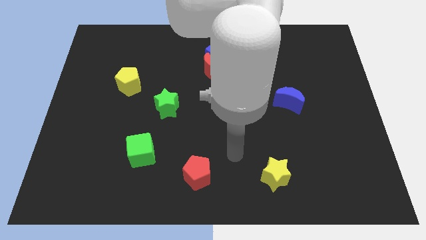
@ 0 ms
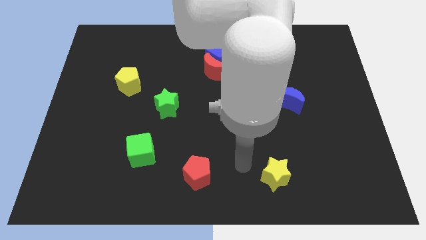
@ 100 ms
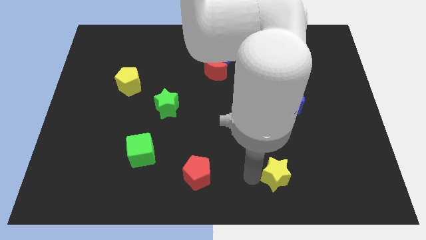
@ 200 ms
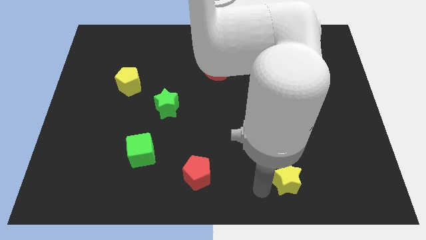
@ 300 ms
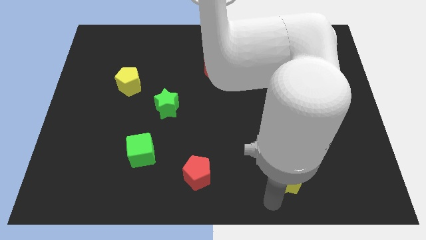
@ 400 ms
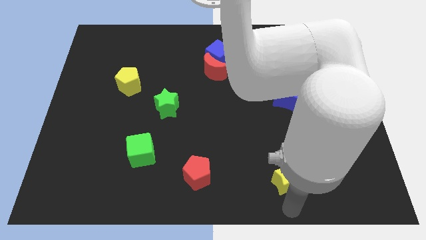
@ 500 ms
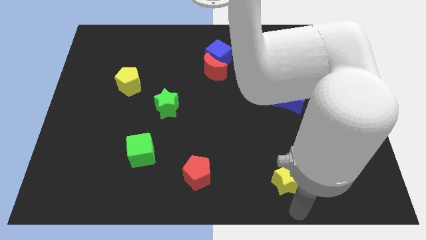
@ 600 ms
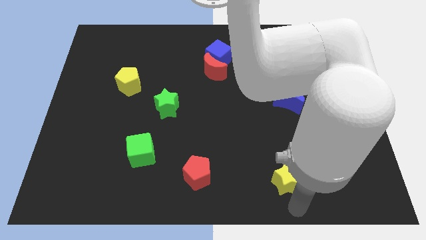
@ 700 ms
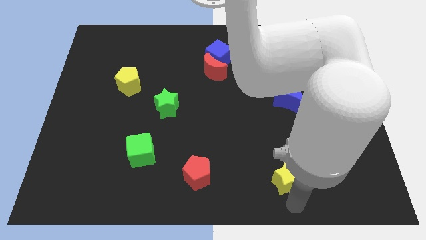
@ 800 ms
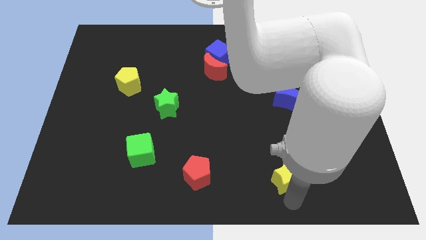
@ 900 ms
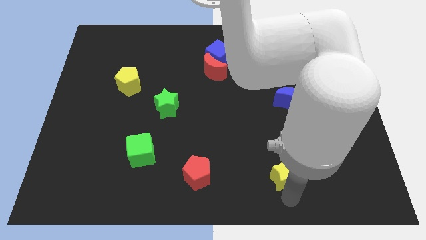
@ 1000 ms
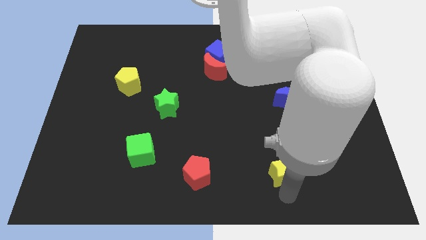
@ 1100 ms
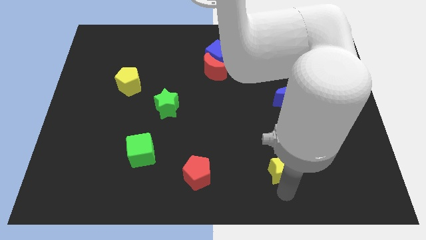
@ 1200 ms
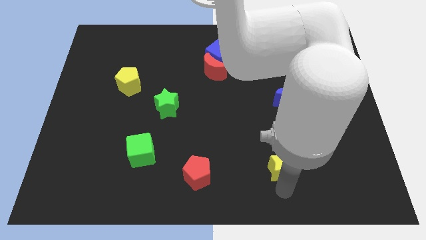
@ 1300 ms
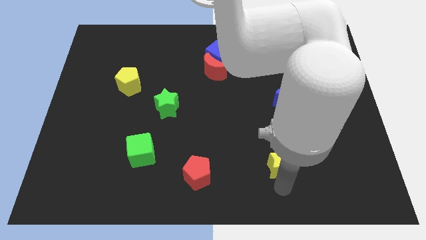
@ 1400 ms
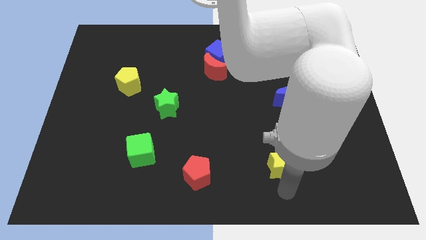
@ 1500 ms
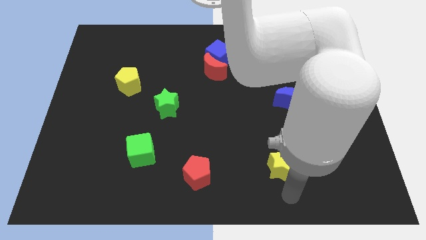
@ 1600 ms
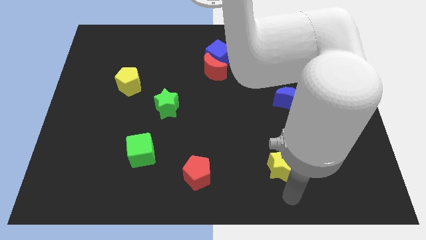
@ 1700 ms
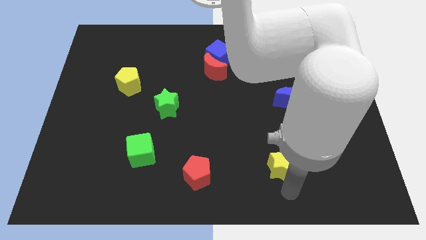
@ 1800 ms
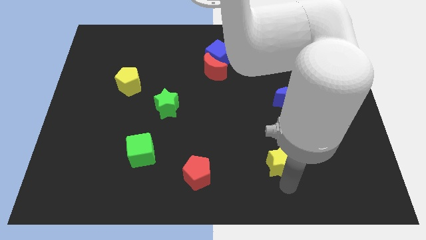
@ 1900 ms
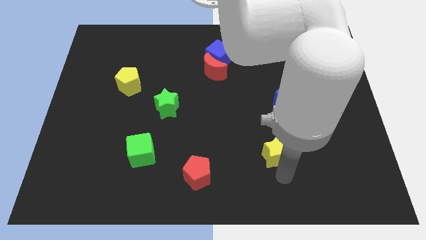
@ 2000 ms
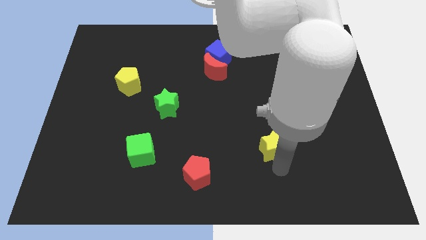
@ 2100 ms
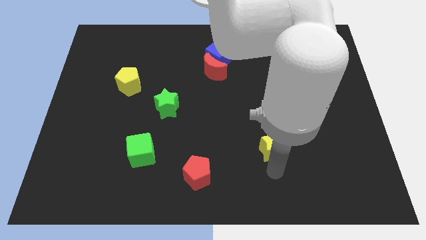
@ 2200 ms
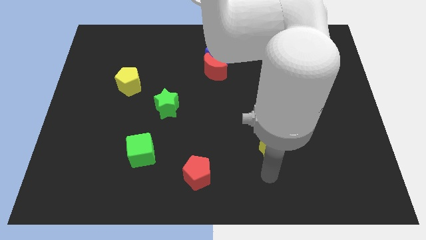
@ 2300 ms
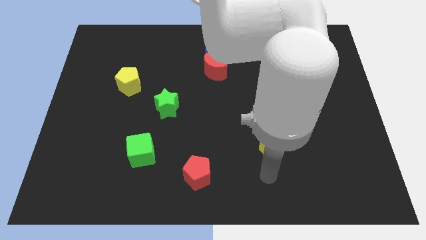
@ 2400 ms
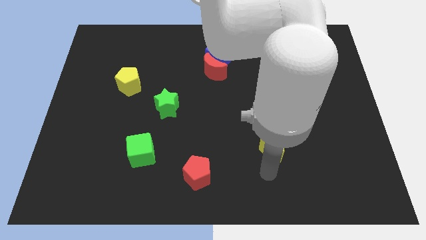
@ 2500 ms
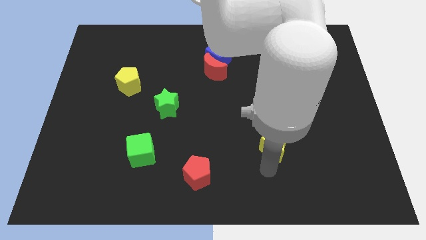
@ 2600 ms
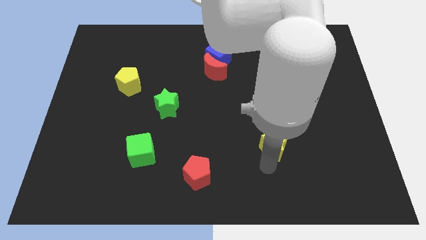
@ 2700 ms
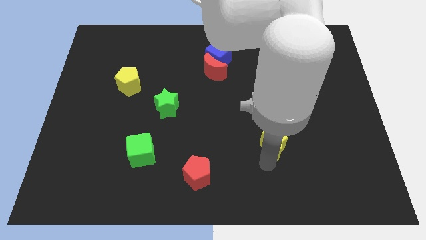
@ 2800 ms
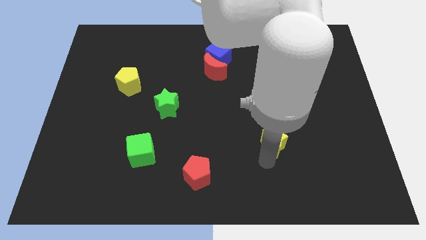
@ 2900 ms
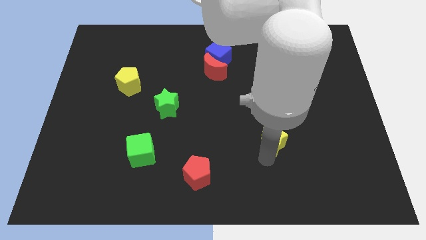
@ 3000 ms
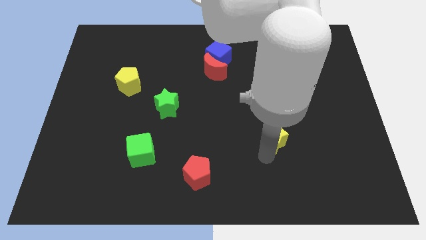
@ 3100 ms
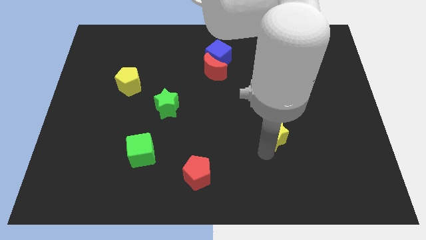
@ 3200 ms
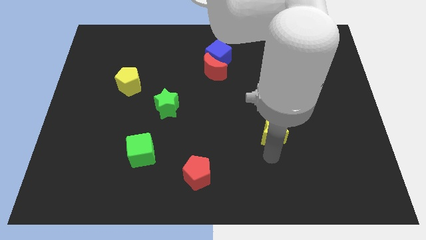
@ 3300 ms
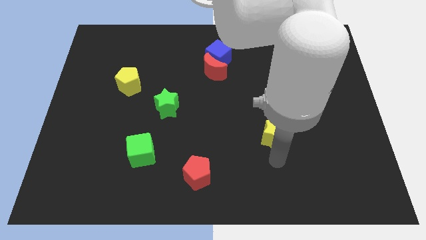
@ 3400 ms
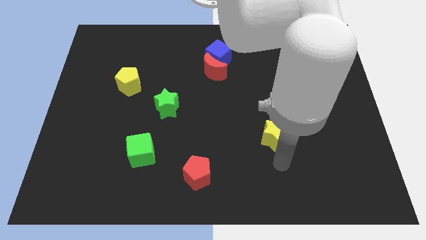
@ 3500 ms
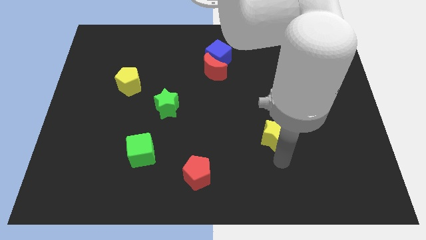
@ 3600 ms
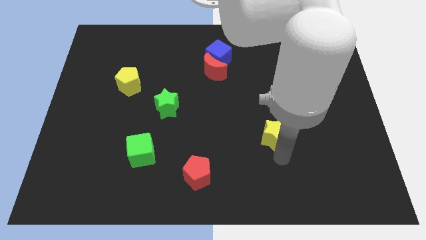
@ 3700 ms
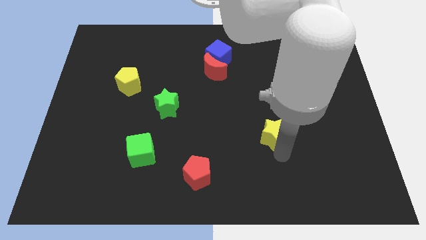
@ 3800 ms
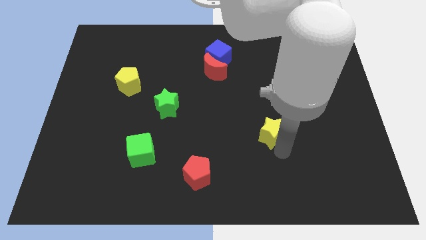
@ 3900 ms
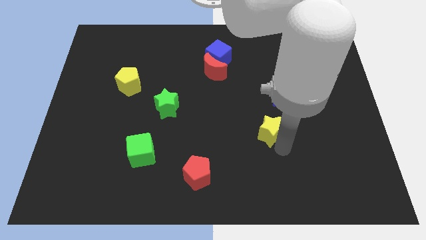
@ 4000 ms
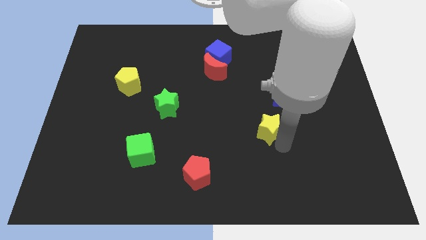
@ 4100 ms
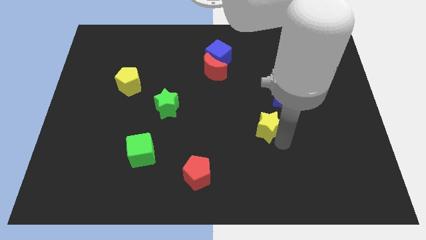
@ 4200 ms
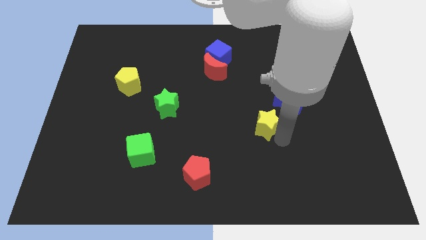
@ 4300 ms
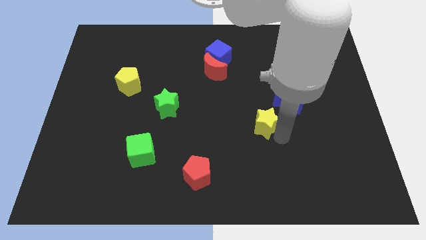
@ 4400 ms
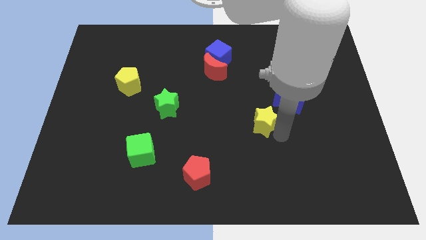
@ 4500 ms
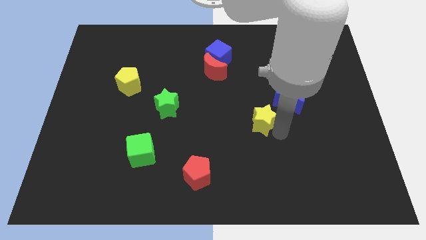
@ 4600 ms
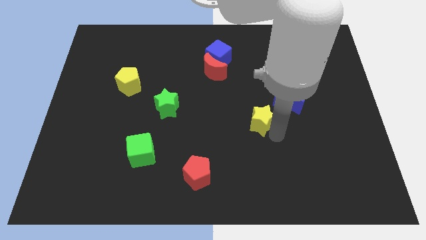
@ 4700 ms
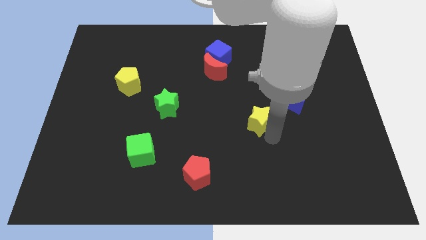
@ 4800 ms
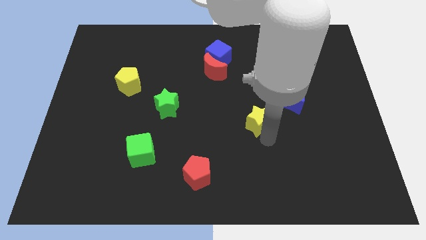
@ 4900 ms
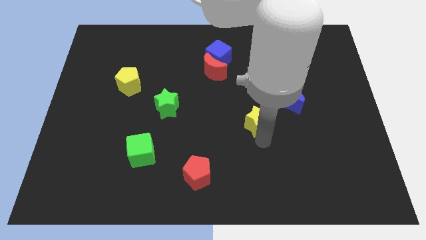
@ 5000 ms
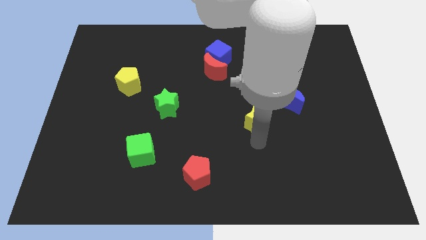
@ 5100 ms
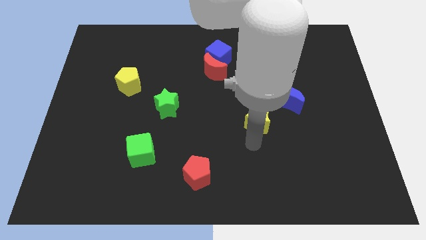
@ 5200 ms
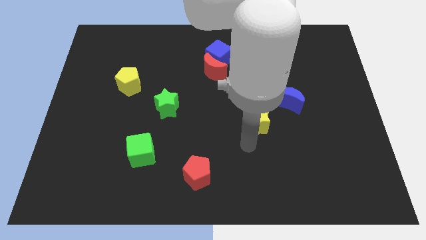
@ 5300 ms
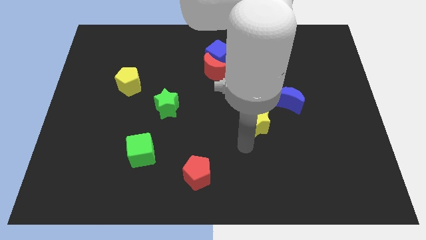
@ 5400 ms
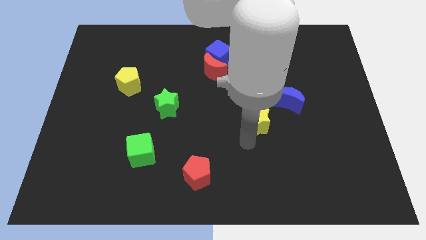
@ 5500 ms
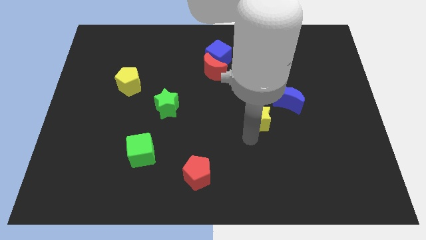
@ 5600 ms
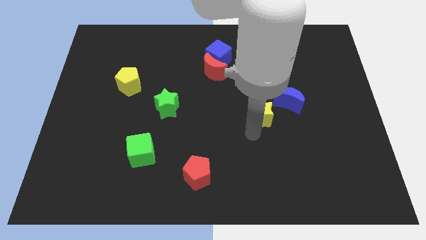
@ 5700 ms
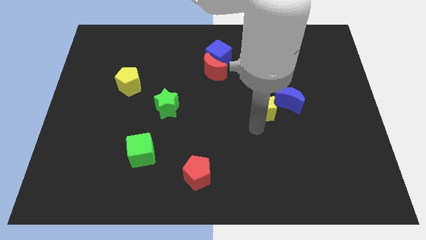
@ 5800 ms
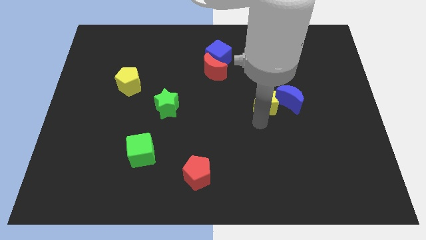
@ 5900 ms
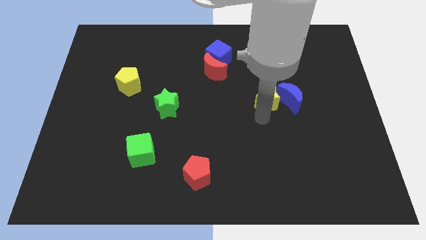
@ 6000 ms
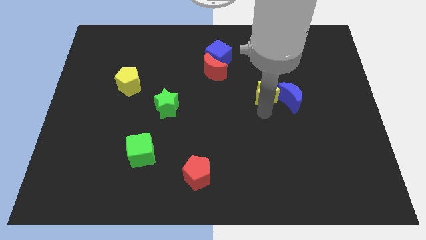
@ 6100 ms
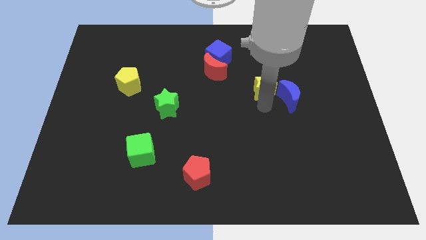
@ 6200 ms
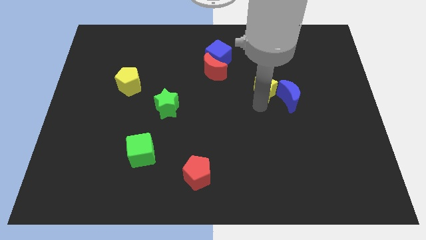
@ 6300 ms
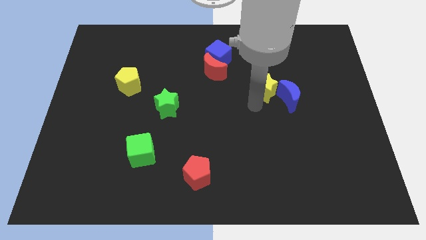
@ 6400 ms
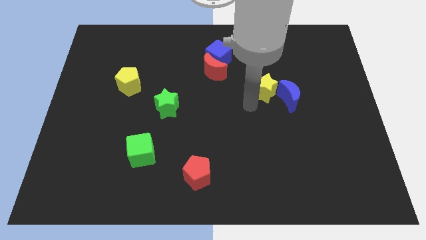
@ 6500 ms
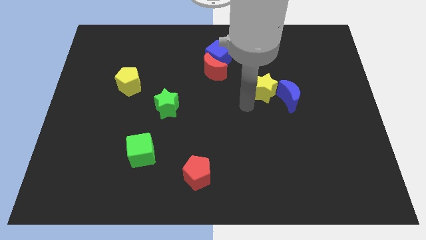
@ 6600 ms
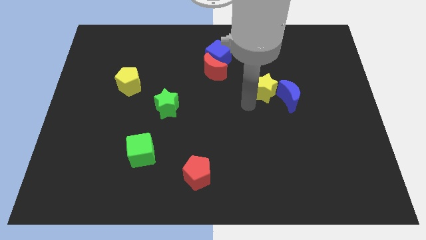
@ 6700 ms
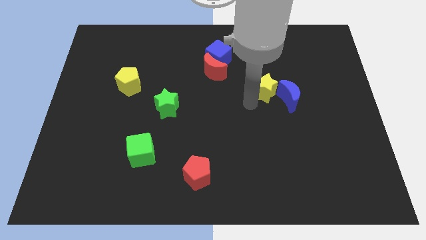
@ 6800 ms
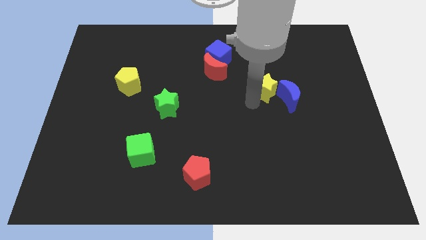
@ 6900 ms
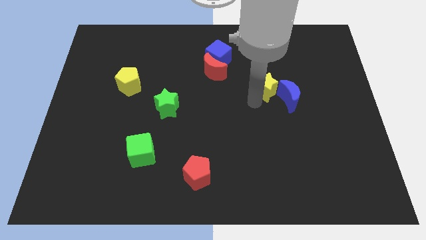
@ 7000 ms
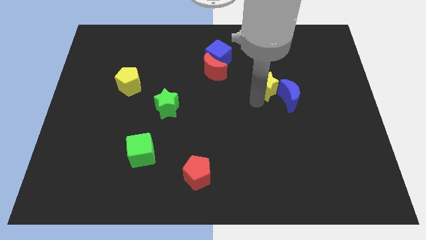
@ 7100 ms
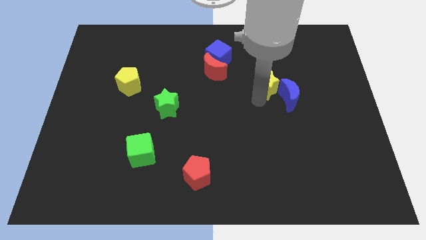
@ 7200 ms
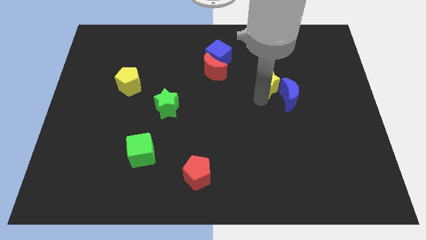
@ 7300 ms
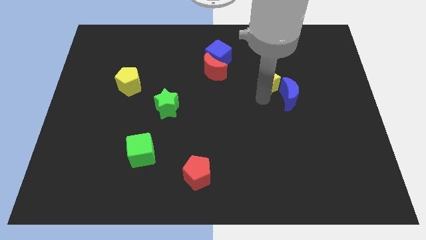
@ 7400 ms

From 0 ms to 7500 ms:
slide the yellow star above the blue moon
